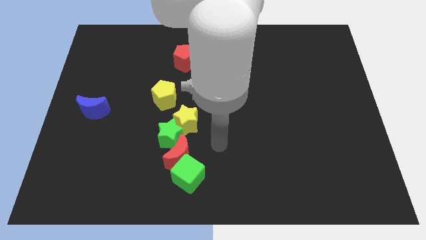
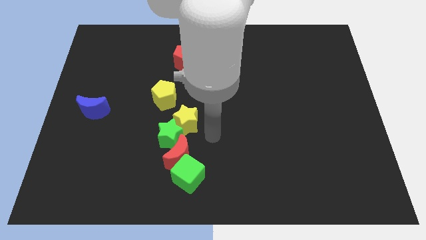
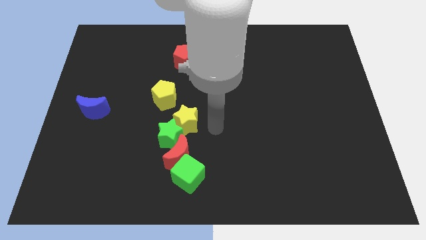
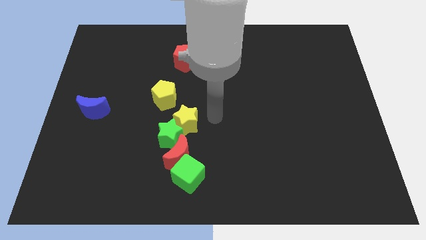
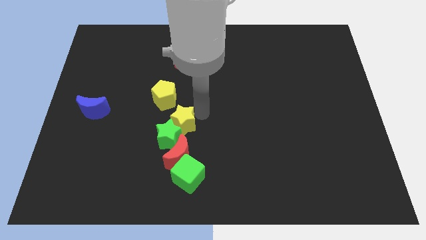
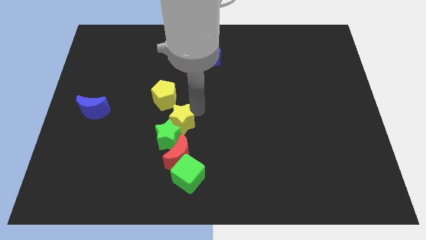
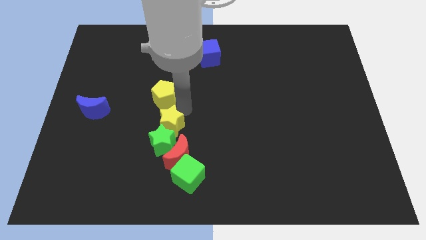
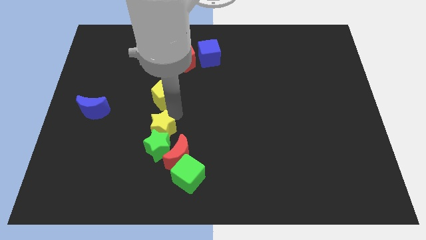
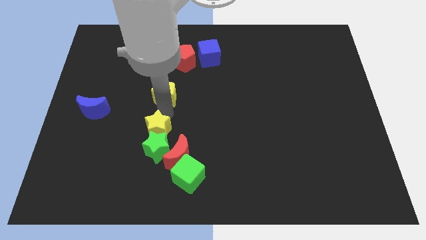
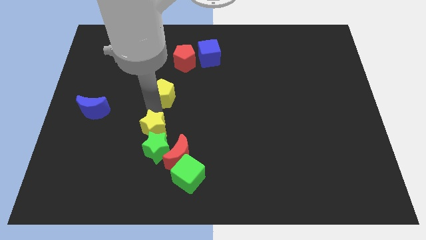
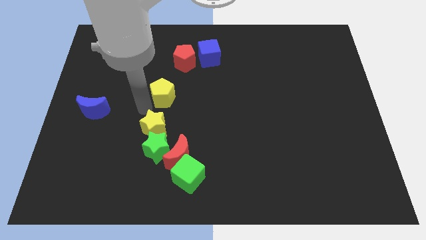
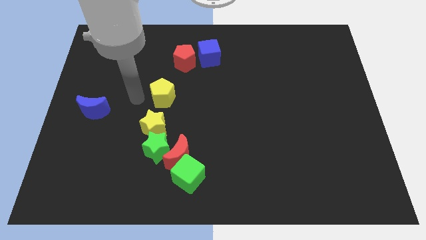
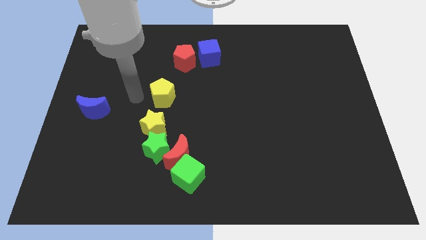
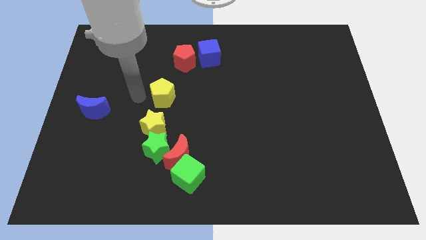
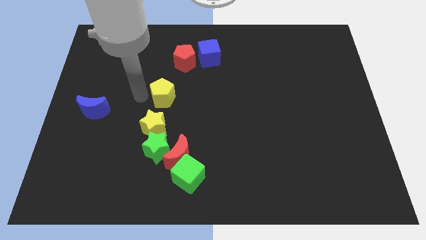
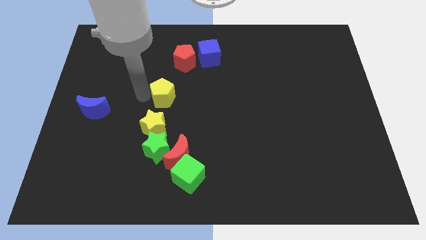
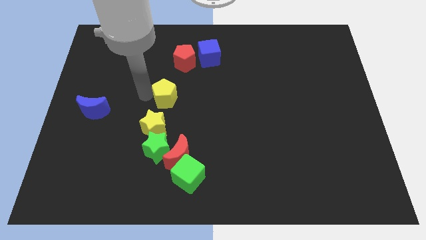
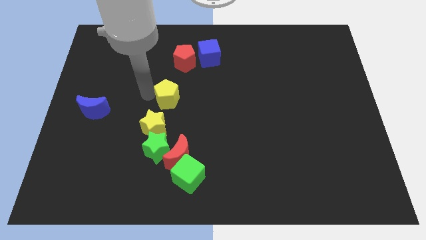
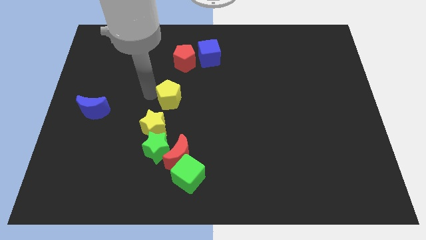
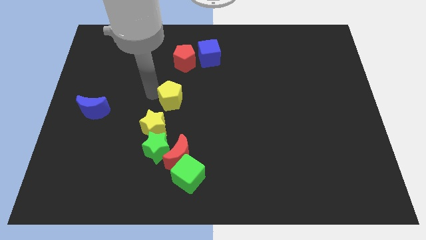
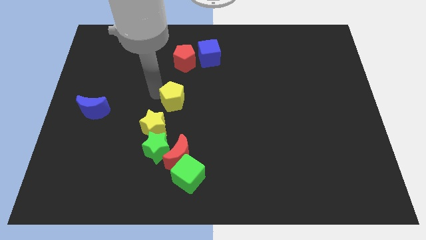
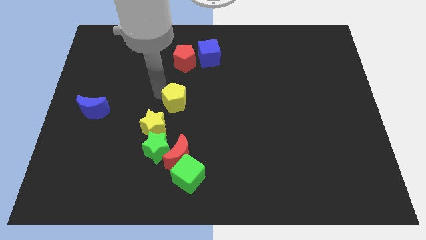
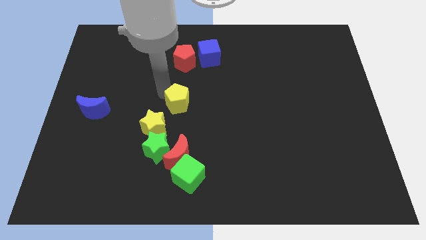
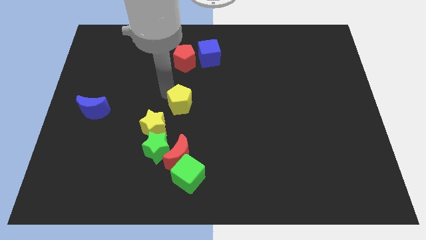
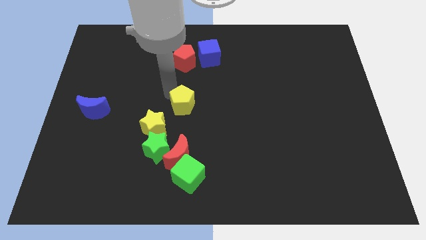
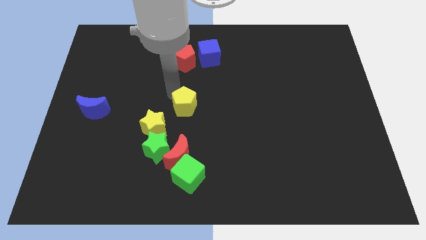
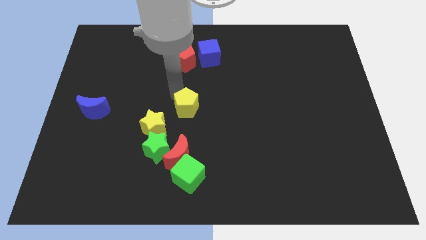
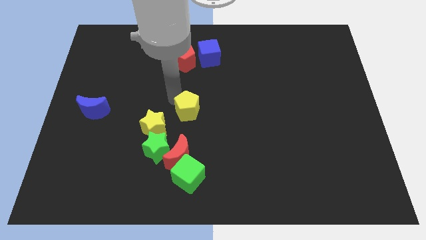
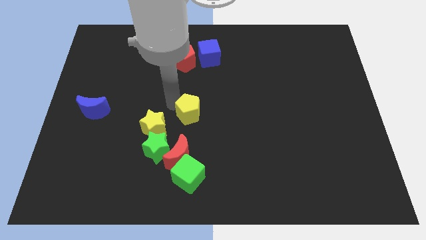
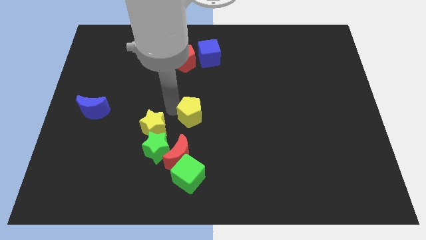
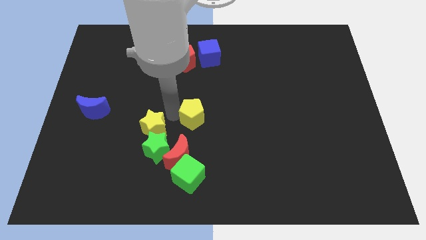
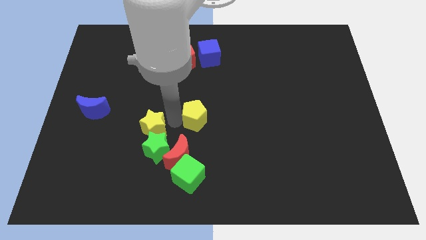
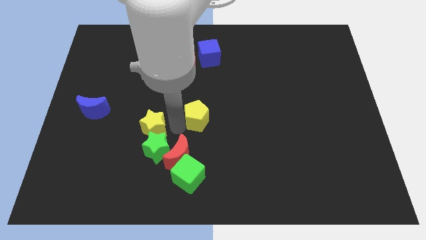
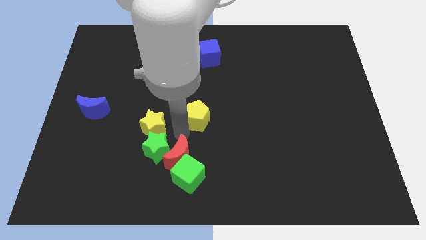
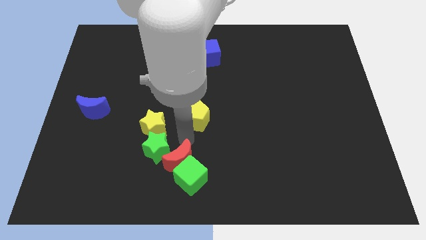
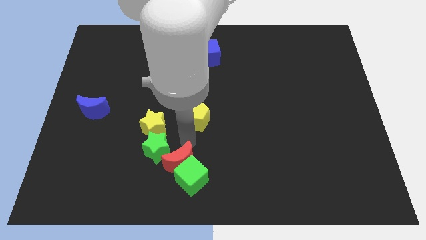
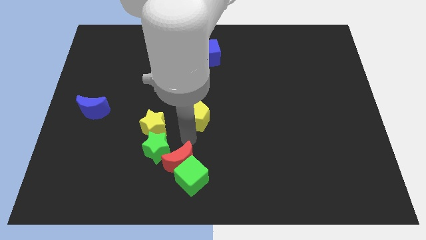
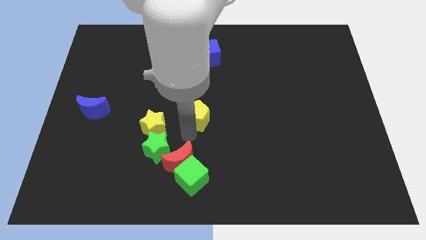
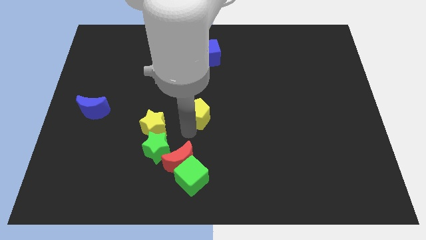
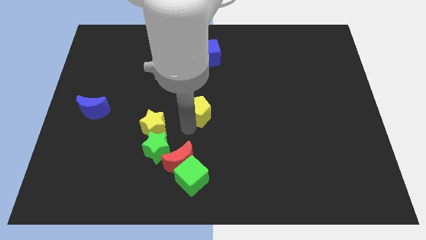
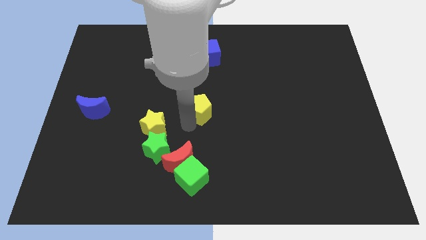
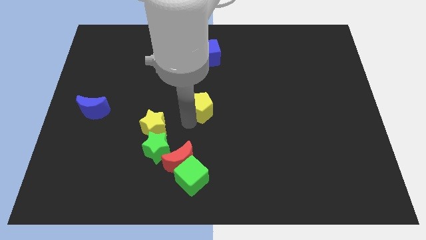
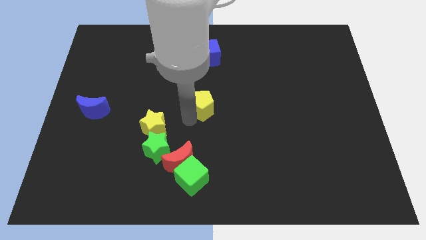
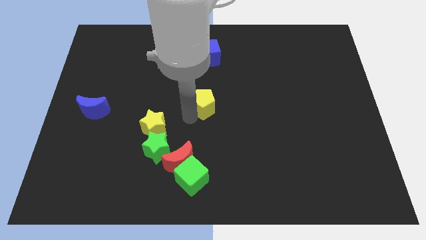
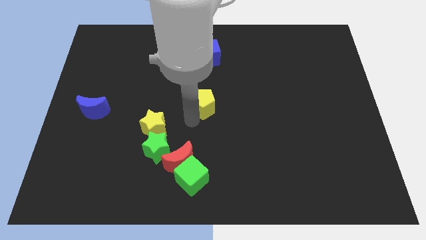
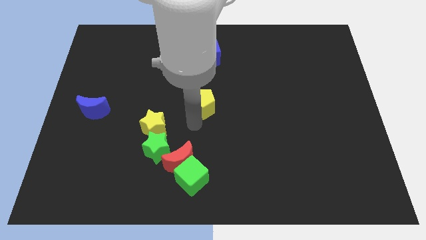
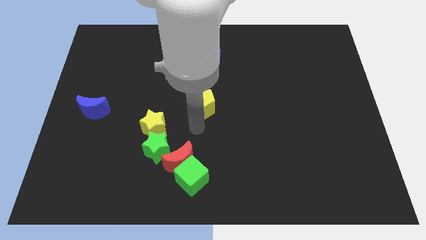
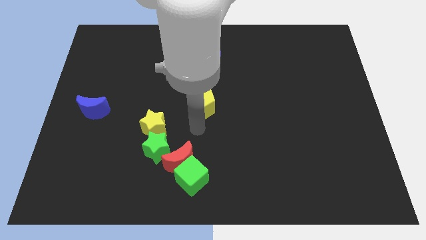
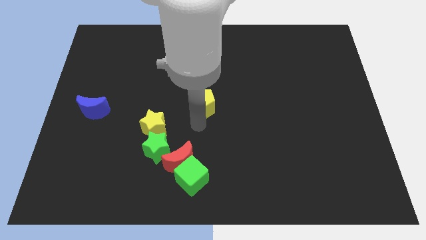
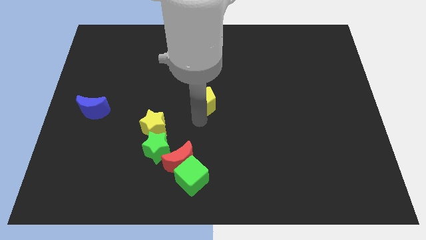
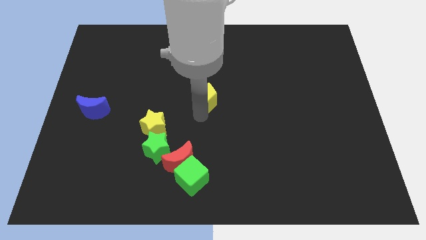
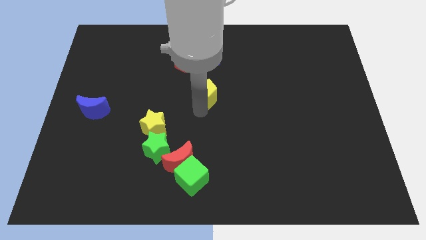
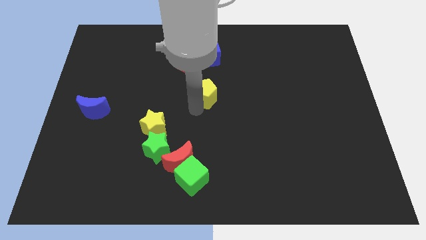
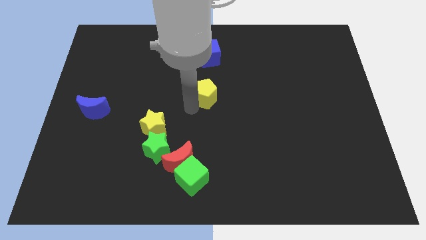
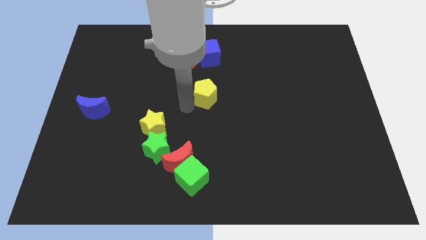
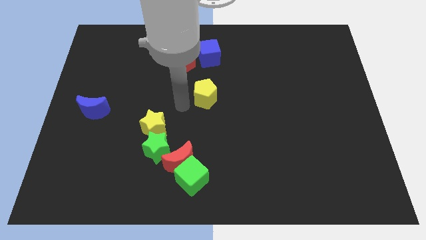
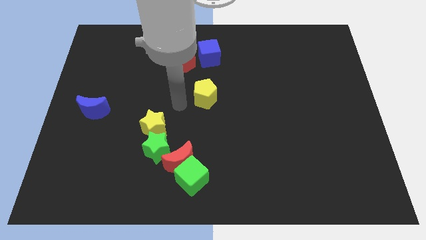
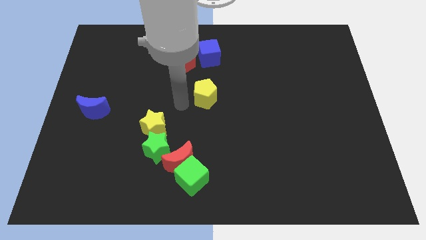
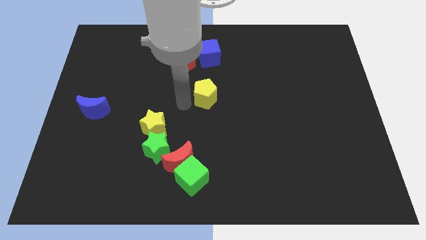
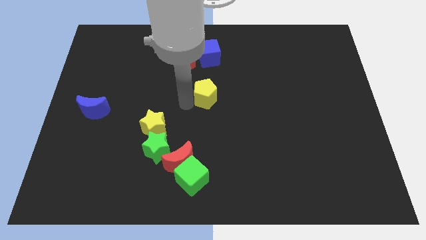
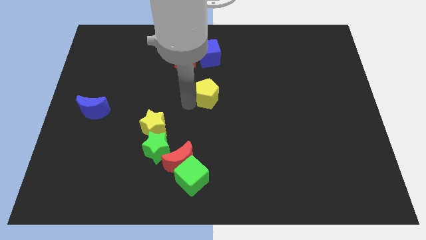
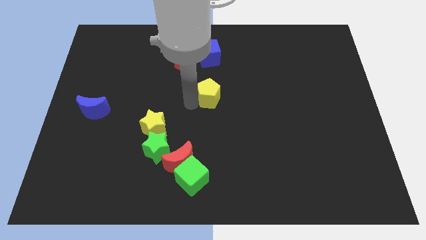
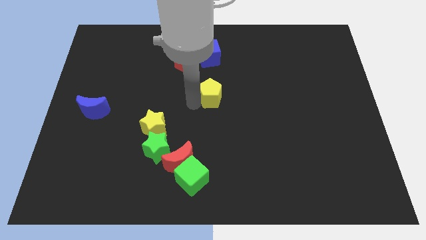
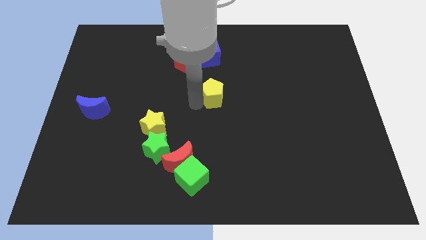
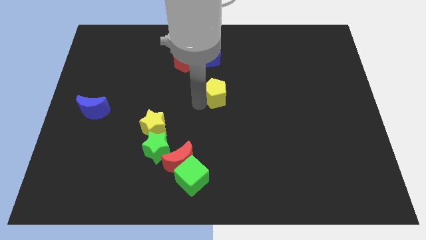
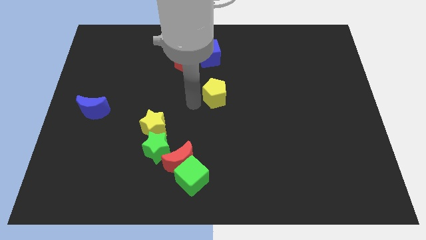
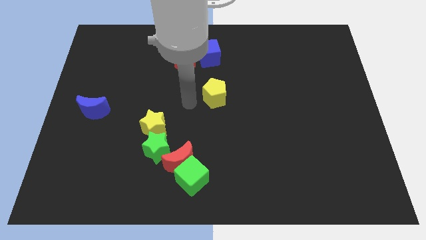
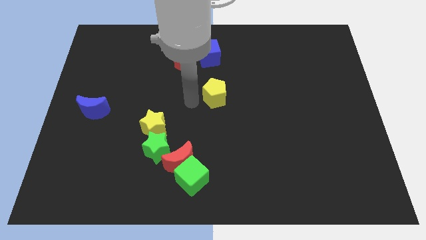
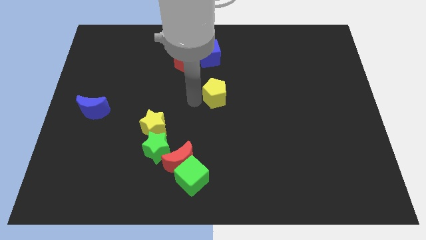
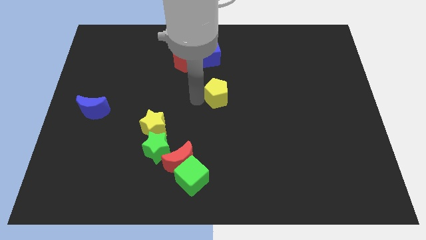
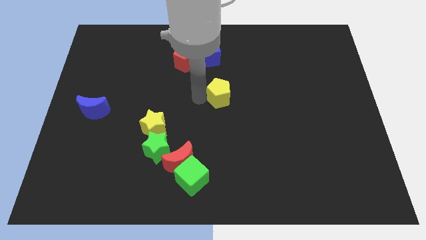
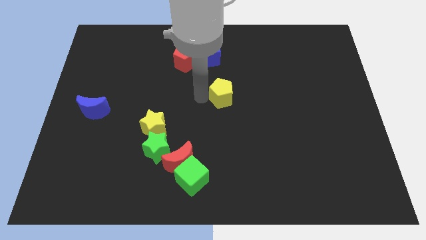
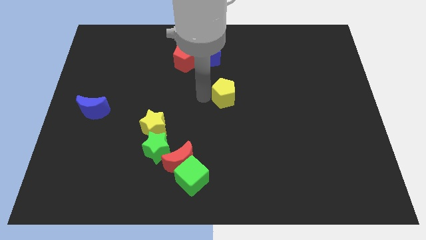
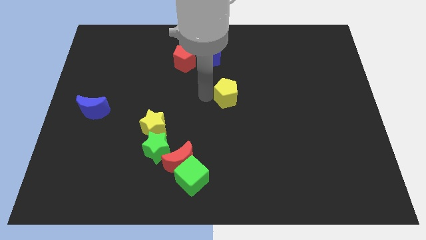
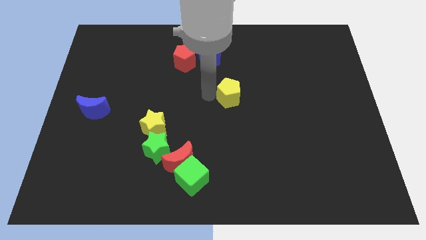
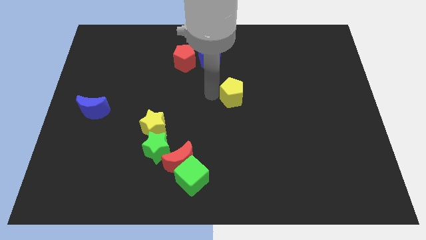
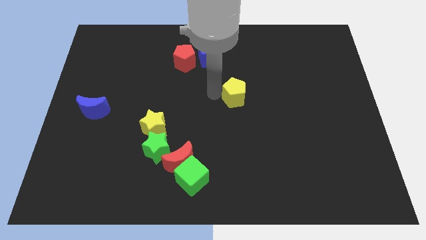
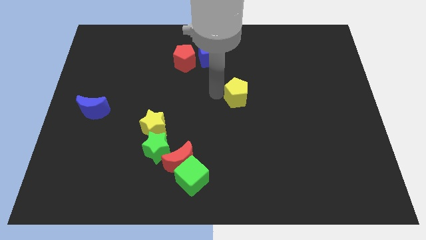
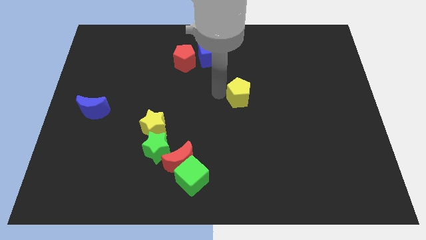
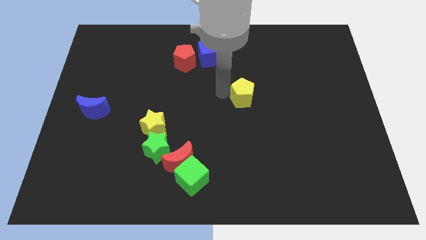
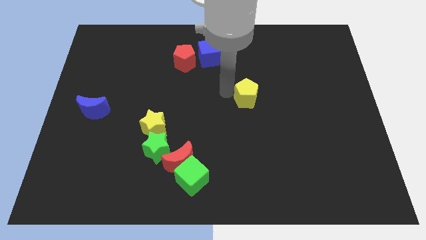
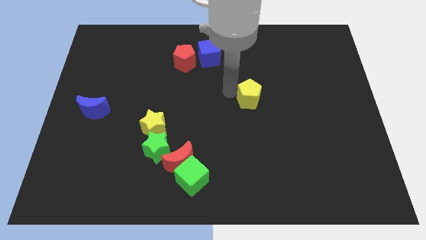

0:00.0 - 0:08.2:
move the yellow pentagon to the right
